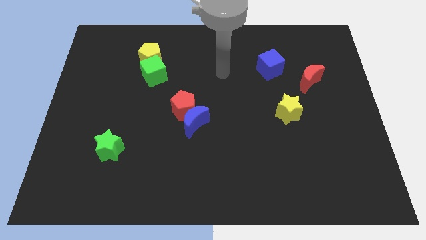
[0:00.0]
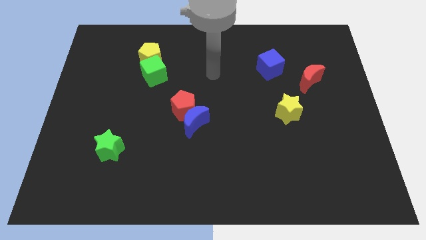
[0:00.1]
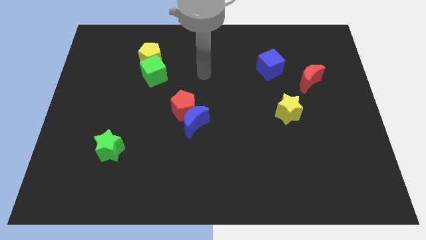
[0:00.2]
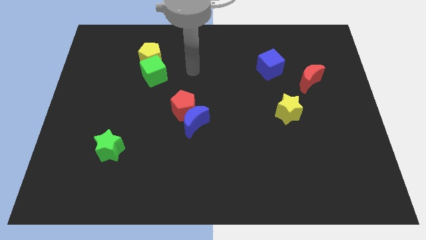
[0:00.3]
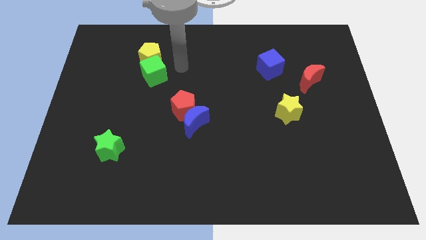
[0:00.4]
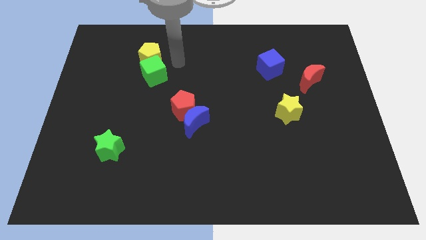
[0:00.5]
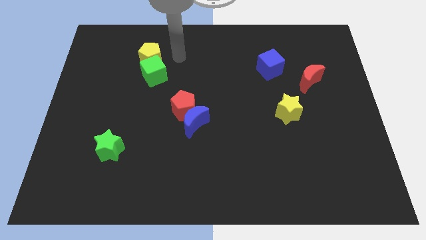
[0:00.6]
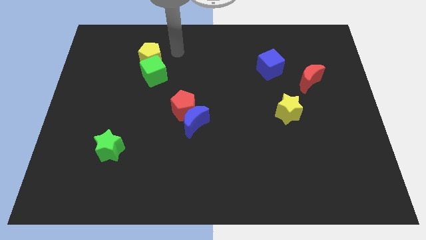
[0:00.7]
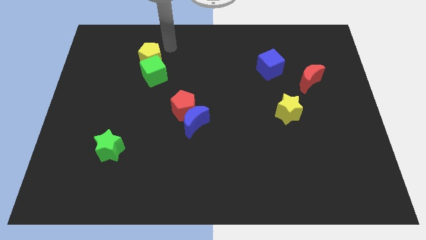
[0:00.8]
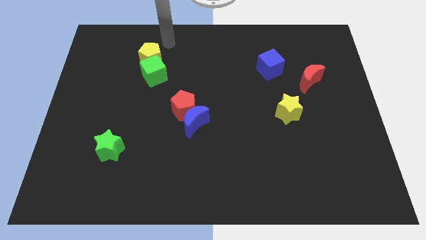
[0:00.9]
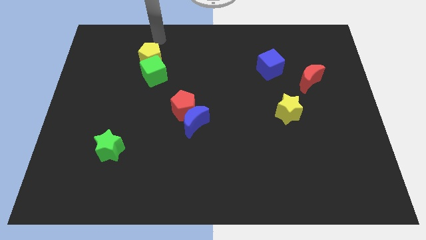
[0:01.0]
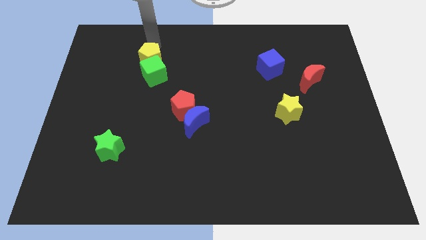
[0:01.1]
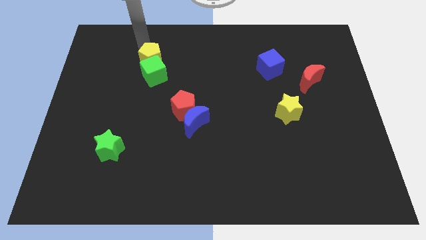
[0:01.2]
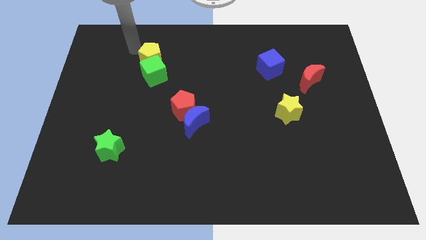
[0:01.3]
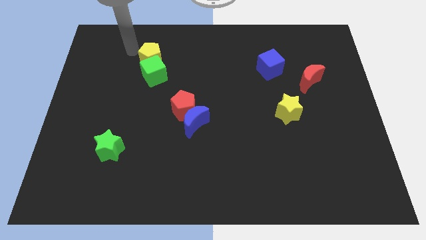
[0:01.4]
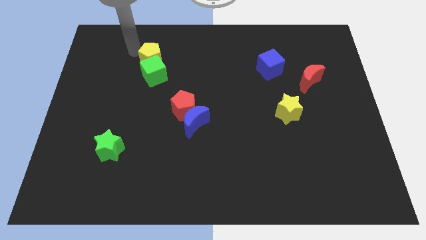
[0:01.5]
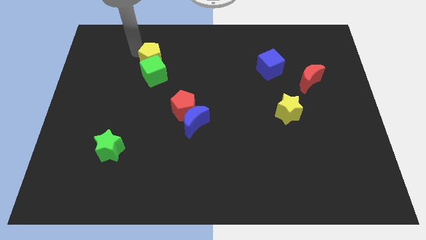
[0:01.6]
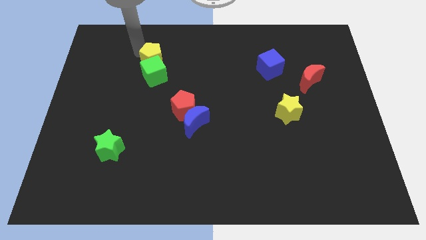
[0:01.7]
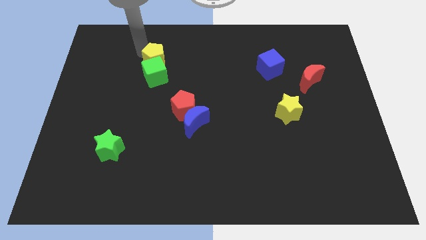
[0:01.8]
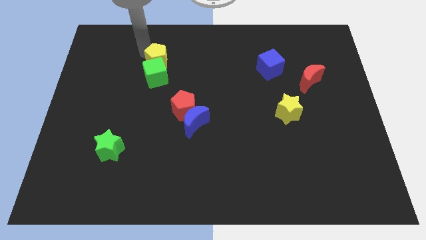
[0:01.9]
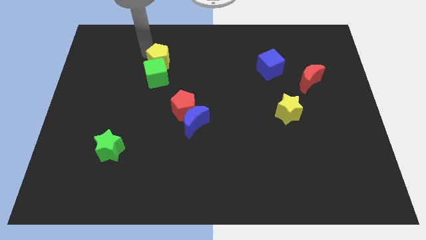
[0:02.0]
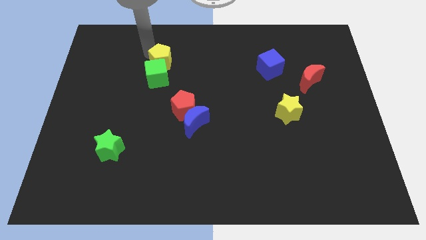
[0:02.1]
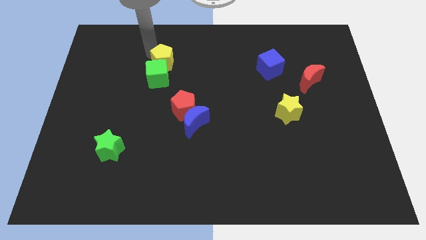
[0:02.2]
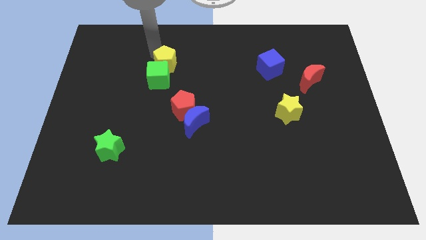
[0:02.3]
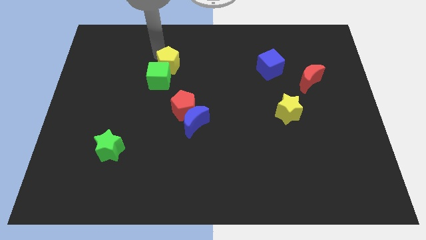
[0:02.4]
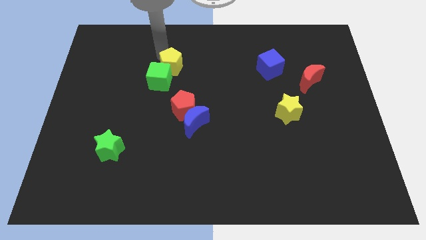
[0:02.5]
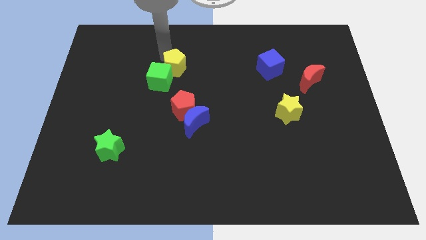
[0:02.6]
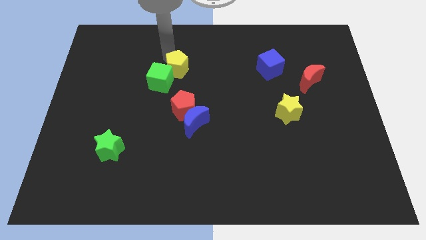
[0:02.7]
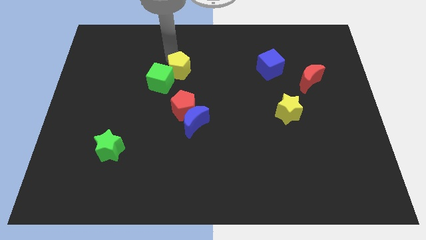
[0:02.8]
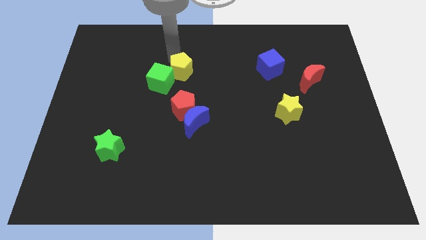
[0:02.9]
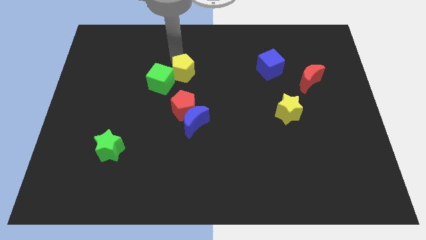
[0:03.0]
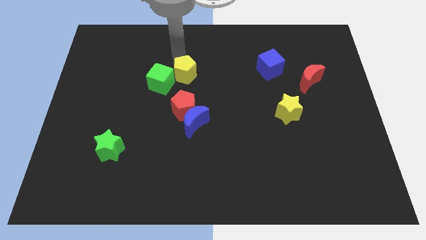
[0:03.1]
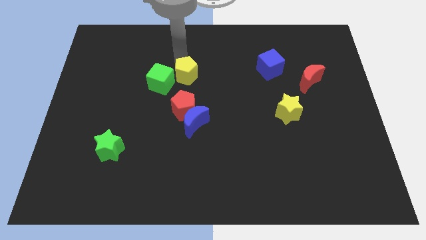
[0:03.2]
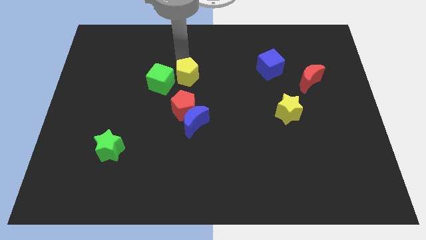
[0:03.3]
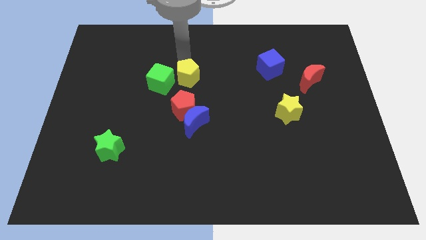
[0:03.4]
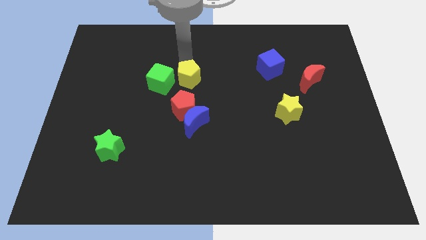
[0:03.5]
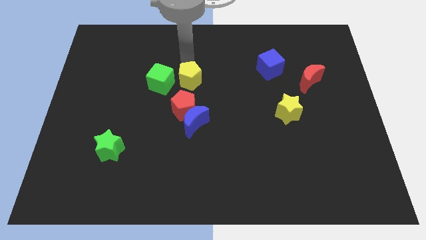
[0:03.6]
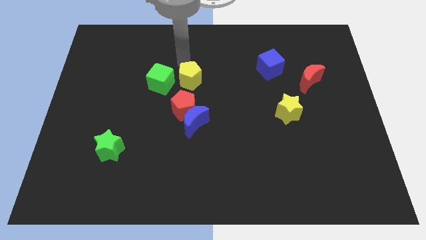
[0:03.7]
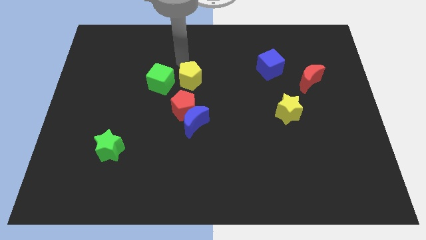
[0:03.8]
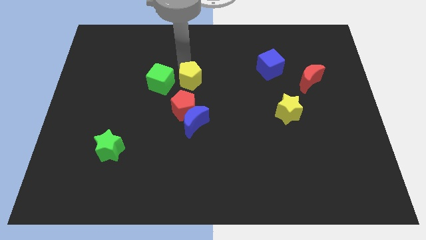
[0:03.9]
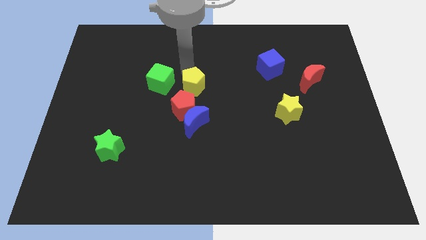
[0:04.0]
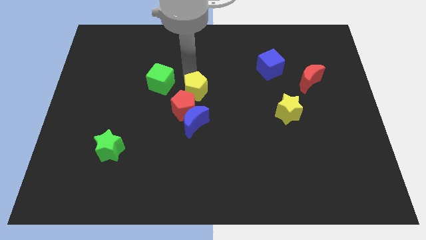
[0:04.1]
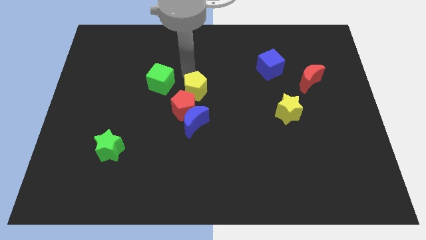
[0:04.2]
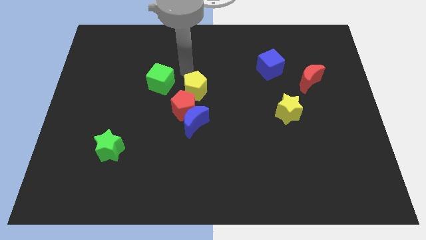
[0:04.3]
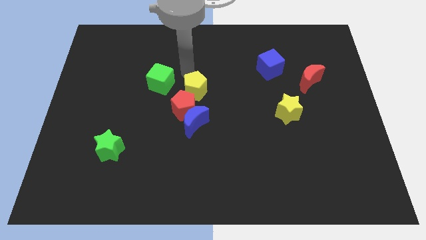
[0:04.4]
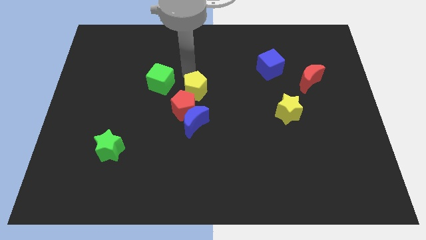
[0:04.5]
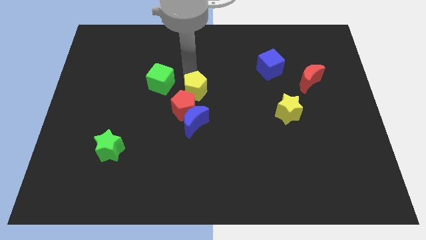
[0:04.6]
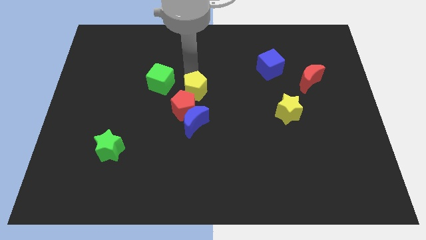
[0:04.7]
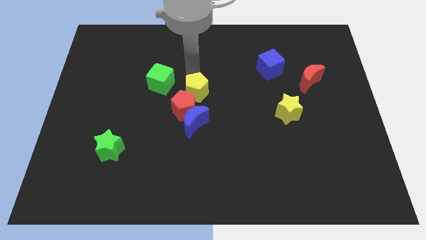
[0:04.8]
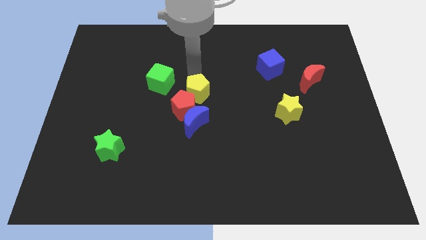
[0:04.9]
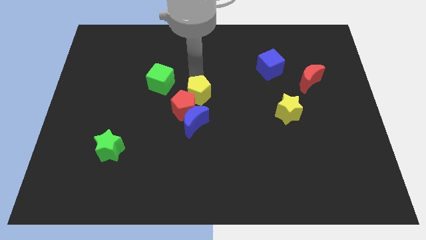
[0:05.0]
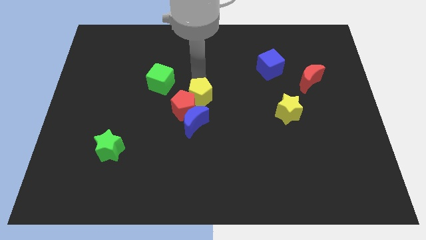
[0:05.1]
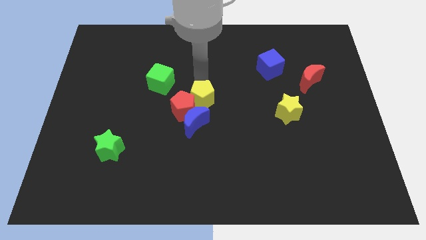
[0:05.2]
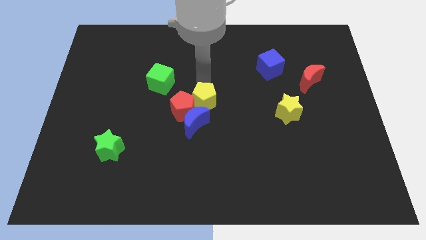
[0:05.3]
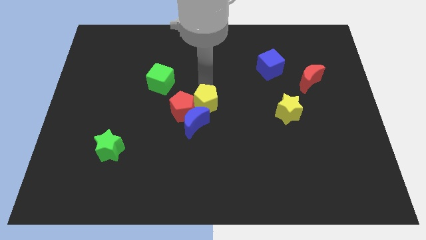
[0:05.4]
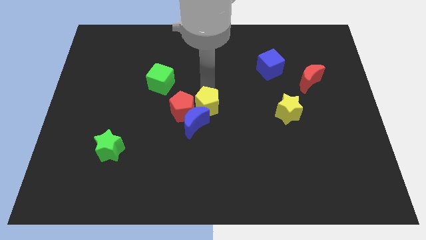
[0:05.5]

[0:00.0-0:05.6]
slide the yellow pentagon towards the blue moon

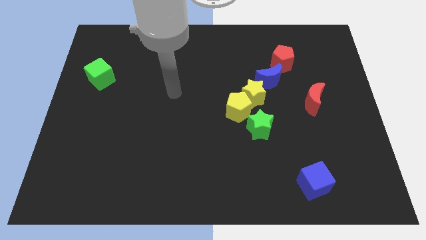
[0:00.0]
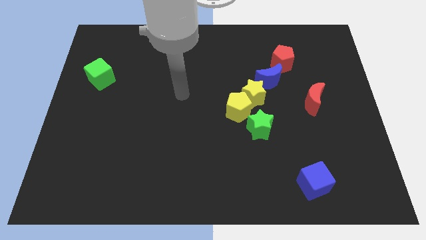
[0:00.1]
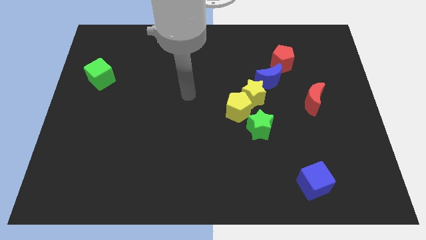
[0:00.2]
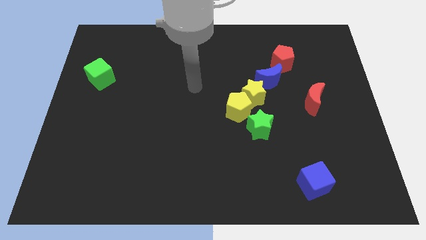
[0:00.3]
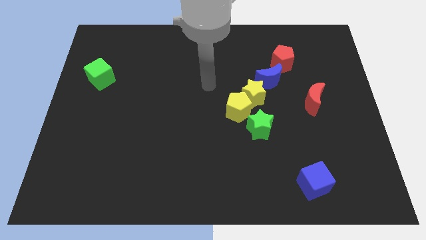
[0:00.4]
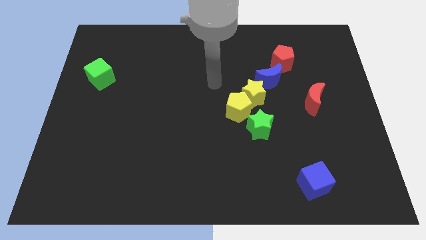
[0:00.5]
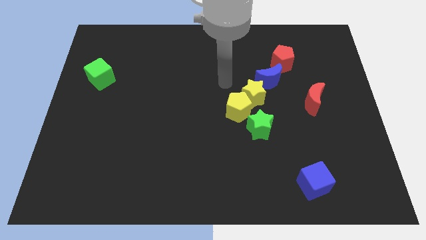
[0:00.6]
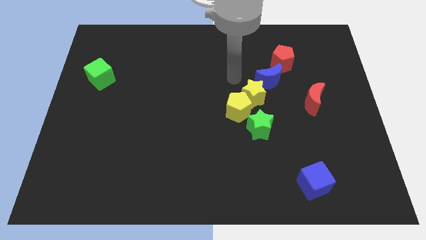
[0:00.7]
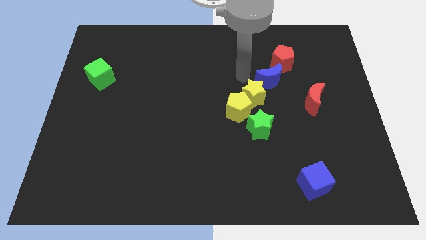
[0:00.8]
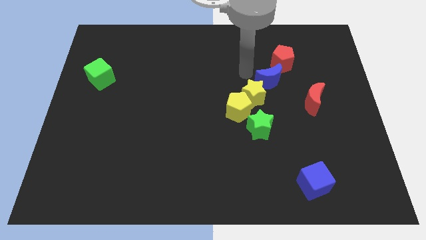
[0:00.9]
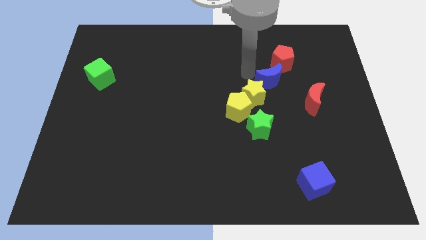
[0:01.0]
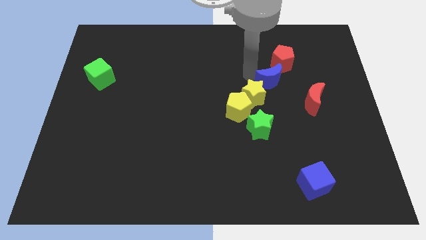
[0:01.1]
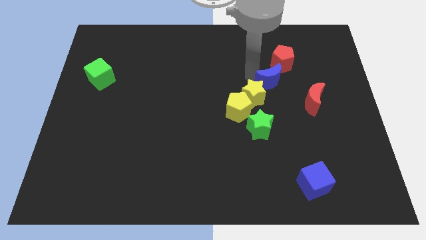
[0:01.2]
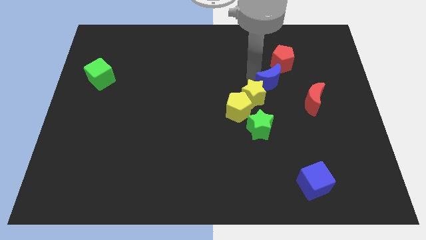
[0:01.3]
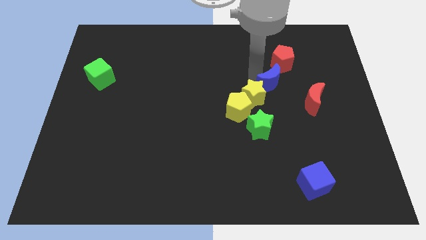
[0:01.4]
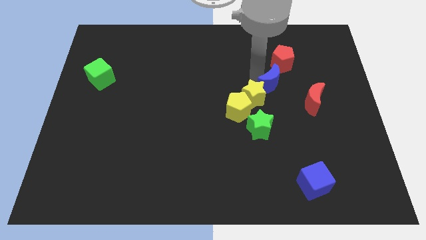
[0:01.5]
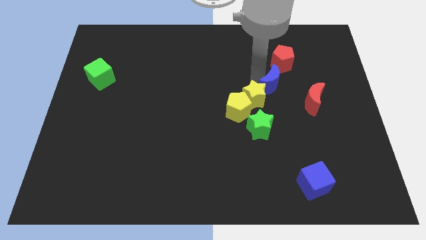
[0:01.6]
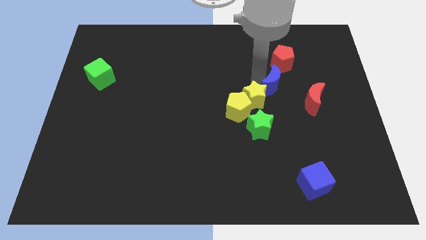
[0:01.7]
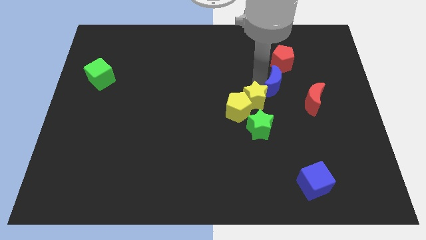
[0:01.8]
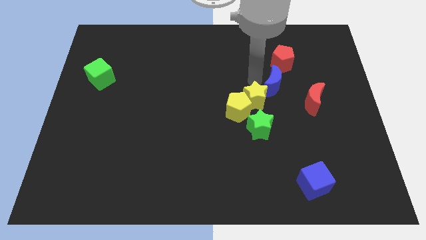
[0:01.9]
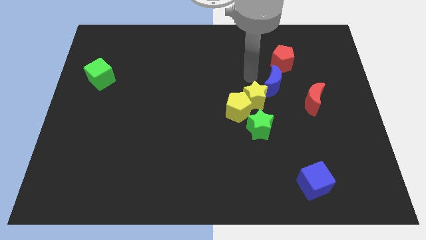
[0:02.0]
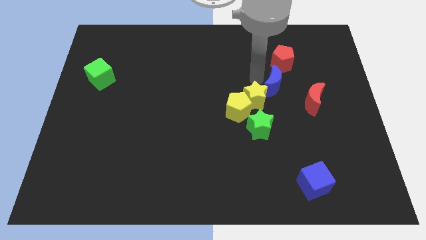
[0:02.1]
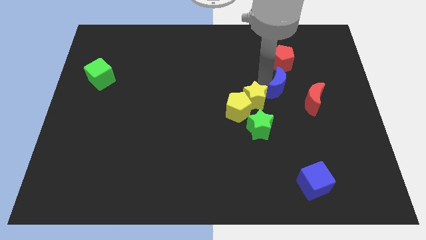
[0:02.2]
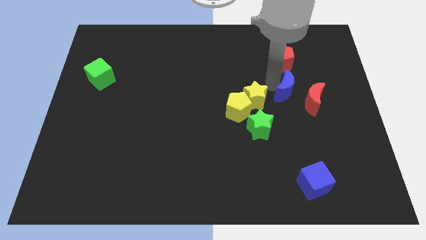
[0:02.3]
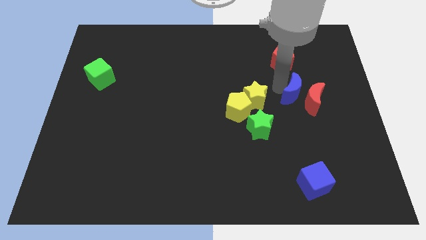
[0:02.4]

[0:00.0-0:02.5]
move the blue moon towards the red moon
